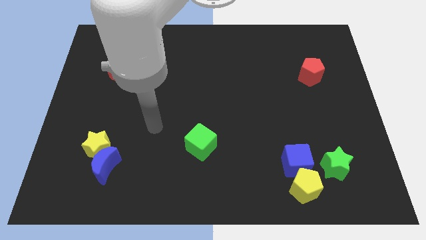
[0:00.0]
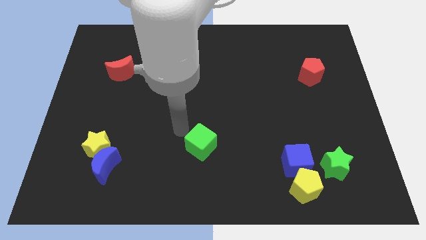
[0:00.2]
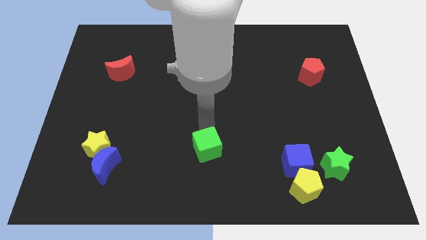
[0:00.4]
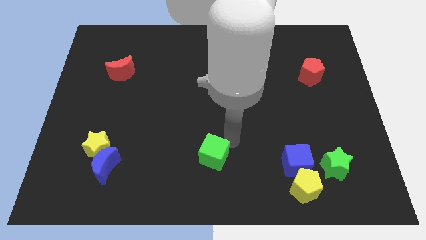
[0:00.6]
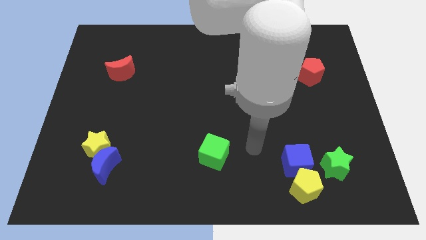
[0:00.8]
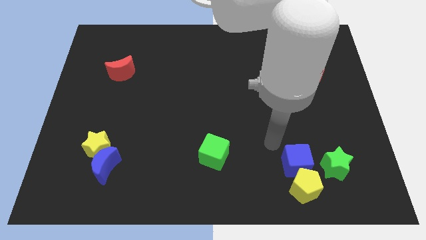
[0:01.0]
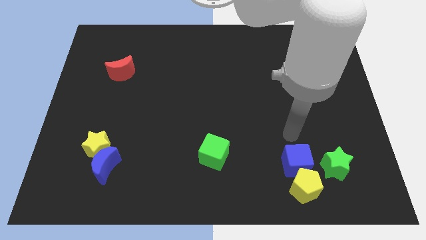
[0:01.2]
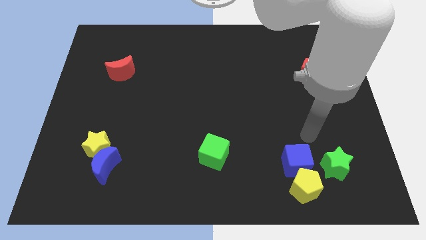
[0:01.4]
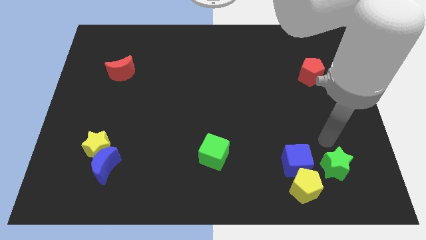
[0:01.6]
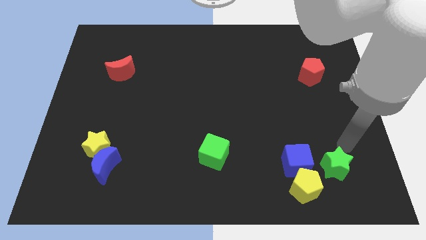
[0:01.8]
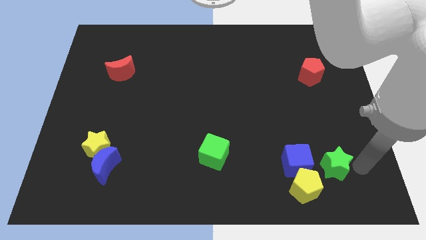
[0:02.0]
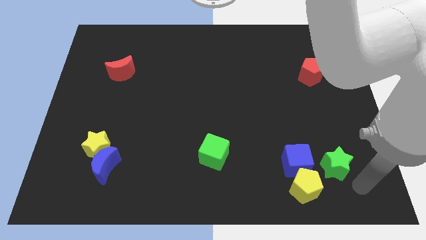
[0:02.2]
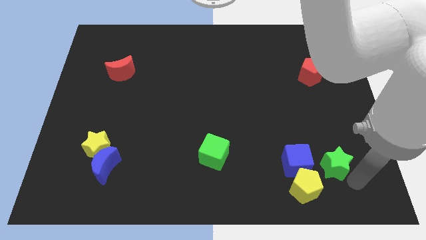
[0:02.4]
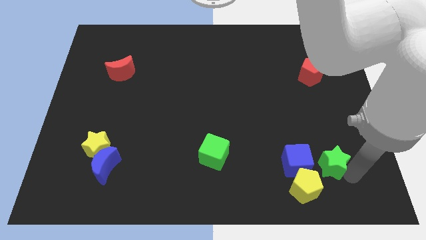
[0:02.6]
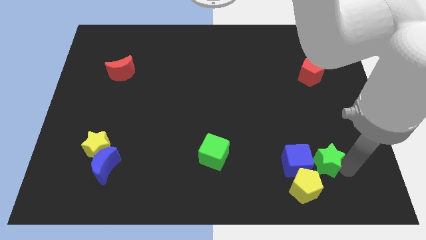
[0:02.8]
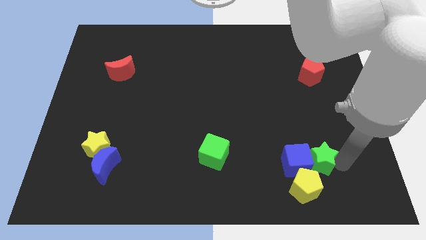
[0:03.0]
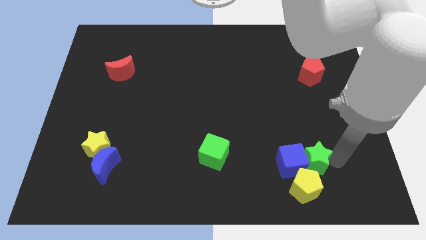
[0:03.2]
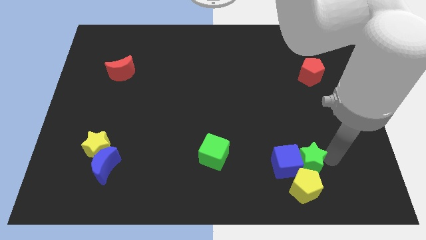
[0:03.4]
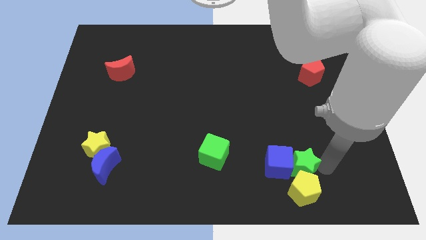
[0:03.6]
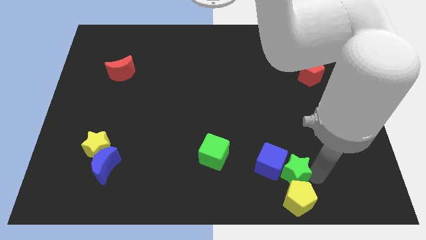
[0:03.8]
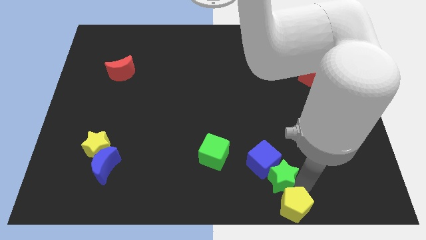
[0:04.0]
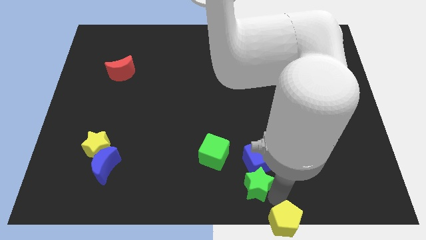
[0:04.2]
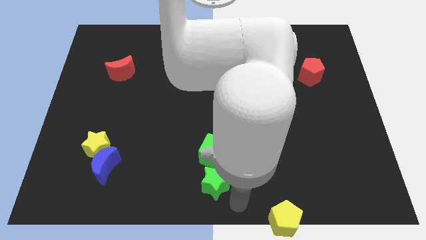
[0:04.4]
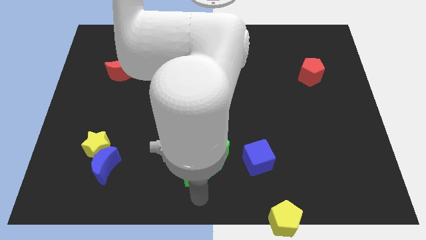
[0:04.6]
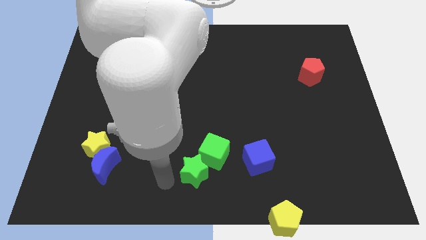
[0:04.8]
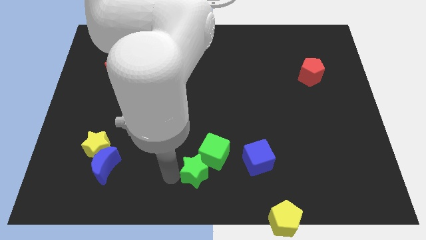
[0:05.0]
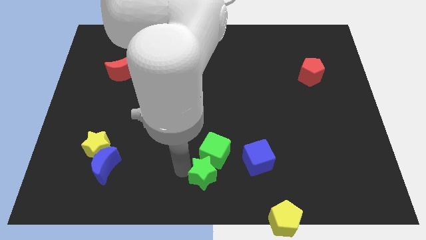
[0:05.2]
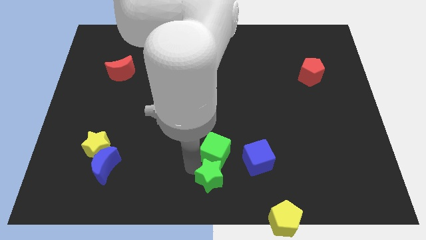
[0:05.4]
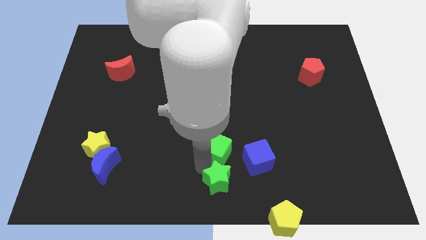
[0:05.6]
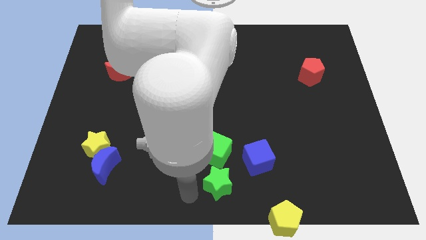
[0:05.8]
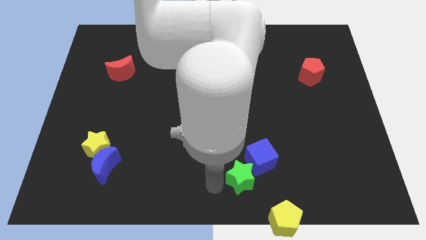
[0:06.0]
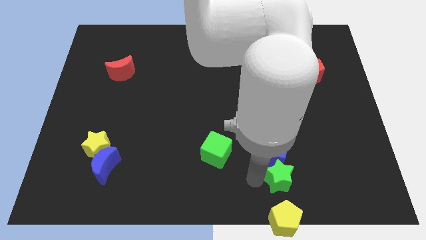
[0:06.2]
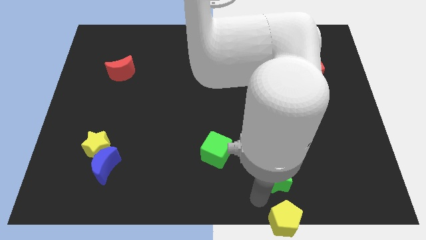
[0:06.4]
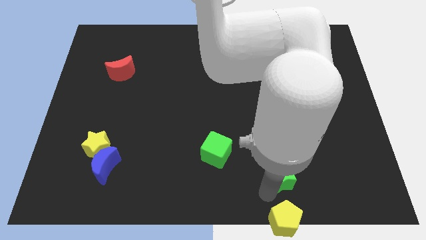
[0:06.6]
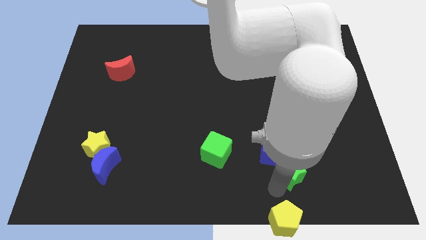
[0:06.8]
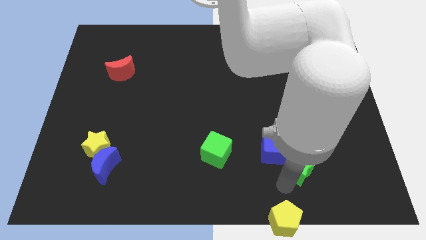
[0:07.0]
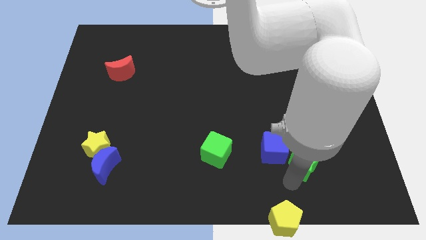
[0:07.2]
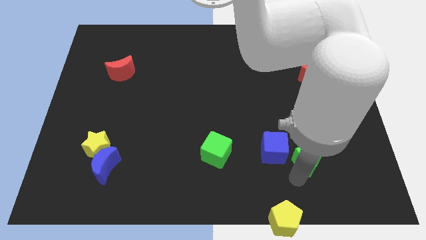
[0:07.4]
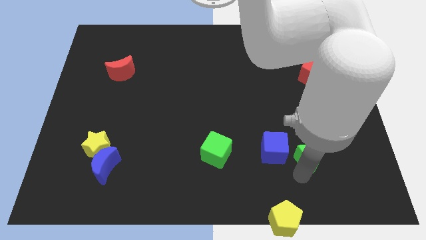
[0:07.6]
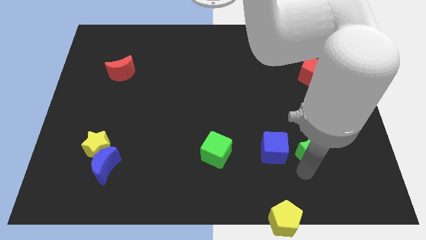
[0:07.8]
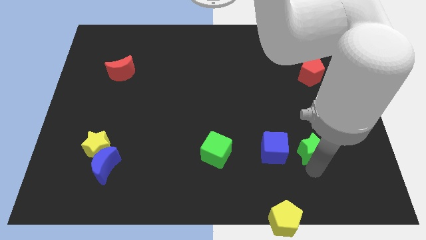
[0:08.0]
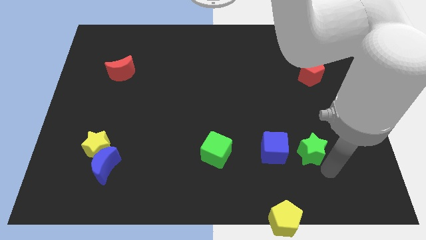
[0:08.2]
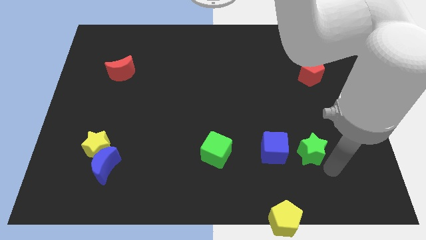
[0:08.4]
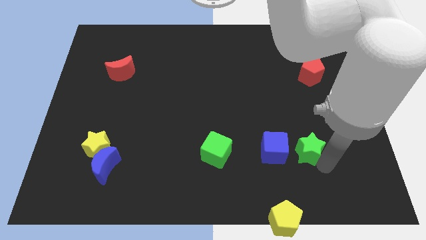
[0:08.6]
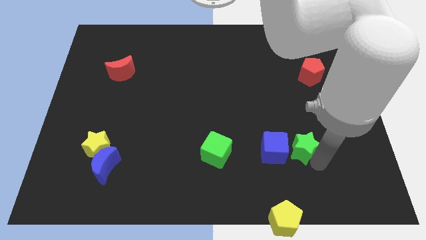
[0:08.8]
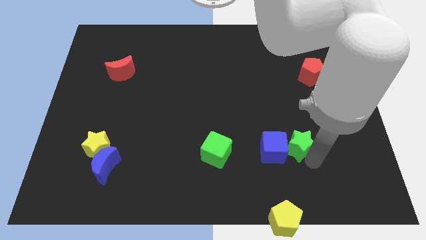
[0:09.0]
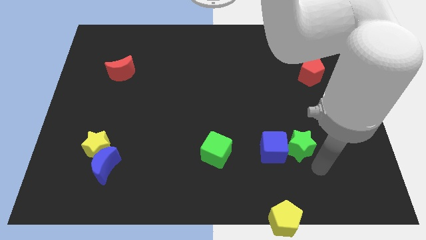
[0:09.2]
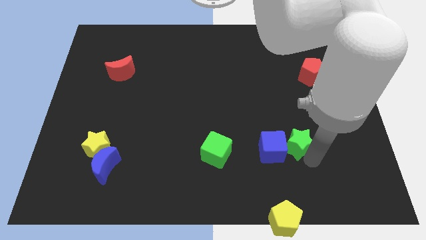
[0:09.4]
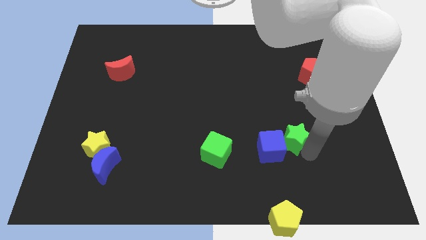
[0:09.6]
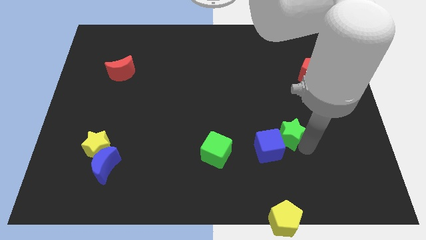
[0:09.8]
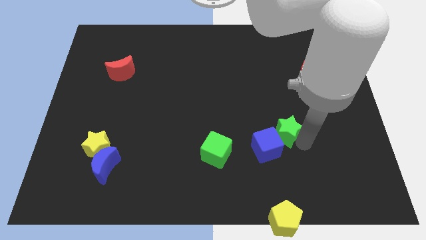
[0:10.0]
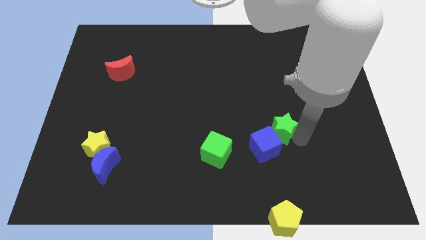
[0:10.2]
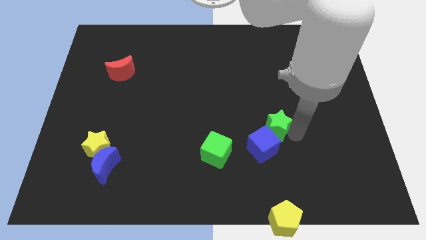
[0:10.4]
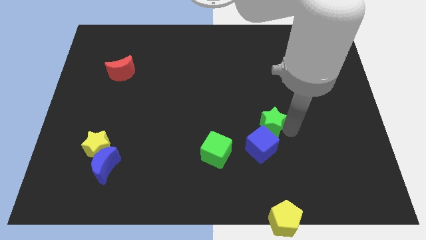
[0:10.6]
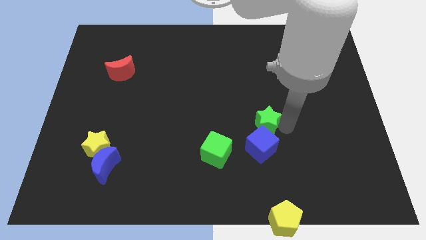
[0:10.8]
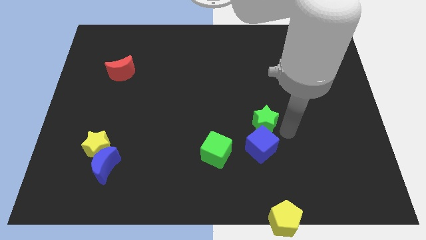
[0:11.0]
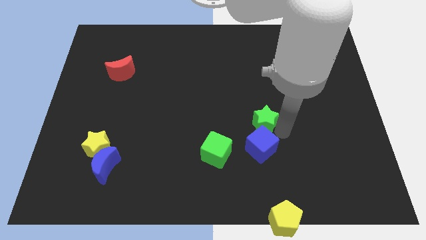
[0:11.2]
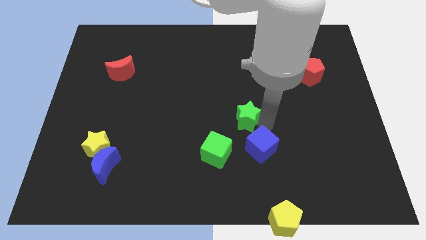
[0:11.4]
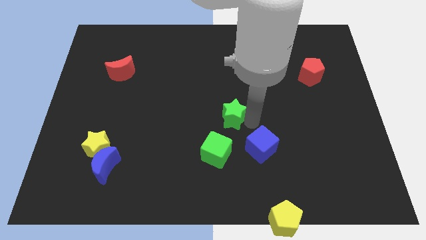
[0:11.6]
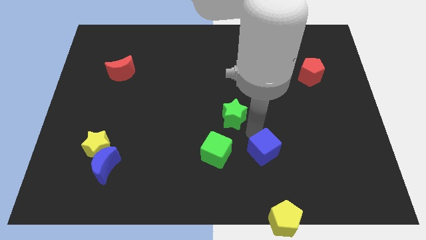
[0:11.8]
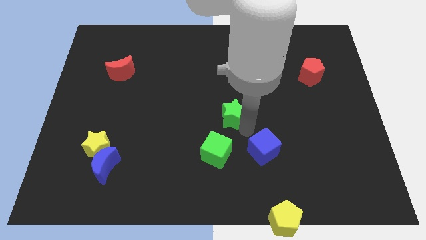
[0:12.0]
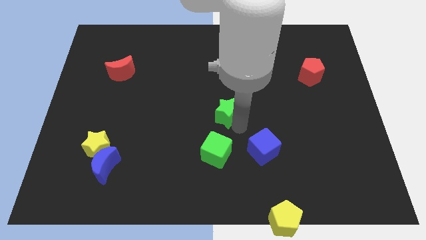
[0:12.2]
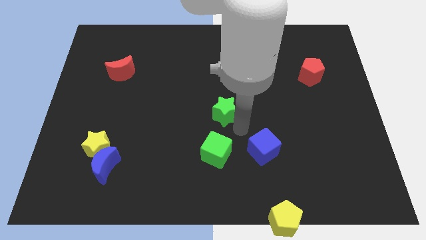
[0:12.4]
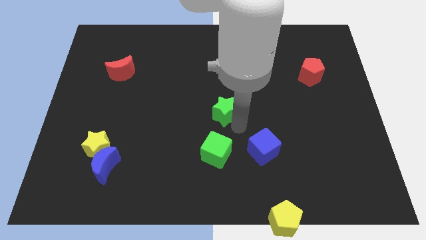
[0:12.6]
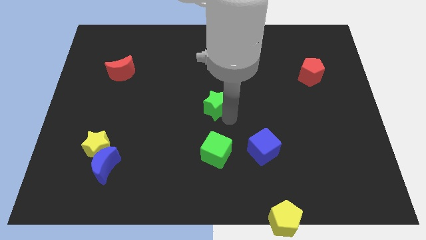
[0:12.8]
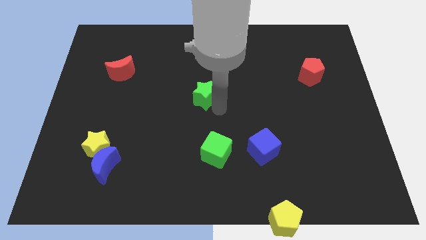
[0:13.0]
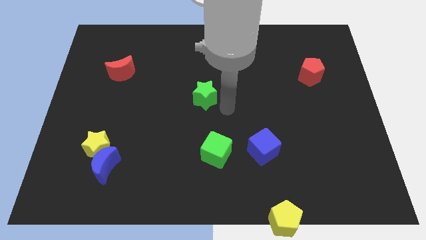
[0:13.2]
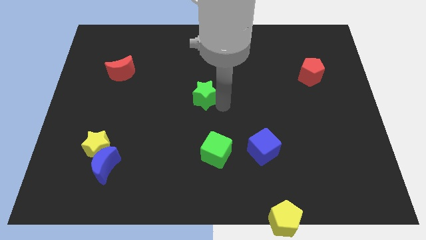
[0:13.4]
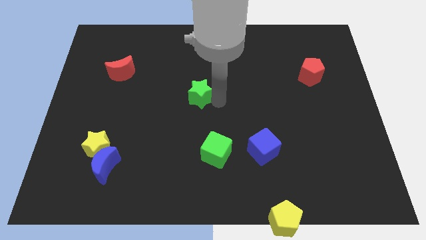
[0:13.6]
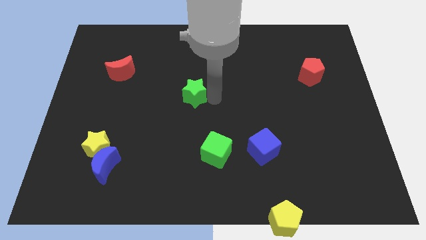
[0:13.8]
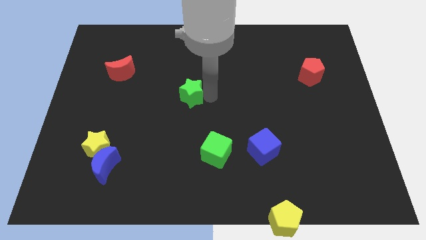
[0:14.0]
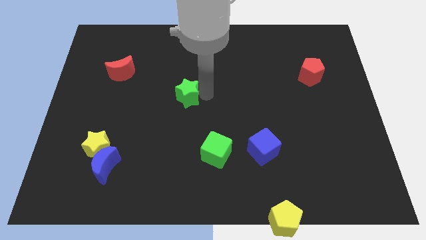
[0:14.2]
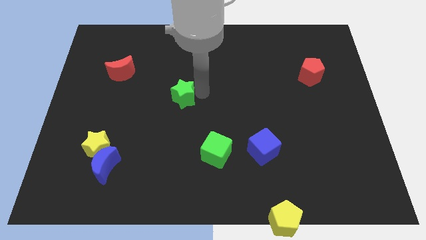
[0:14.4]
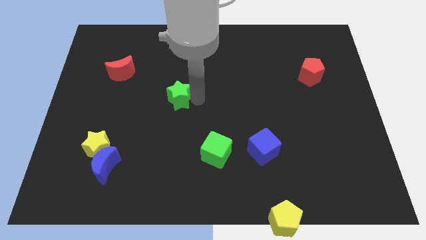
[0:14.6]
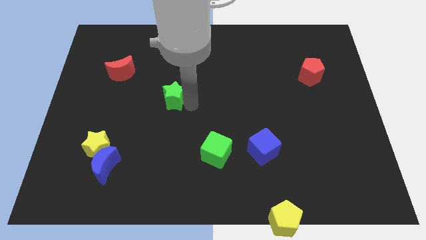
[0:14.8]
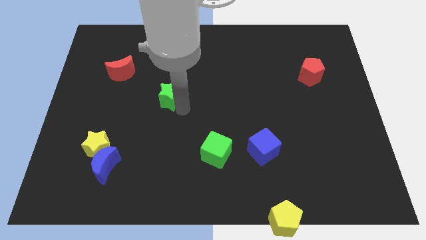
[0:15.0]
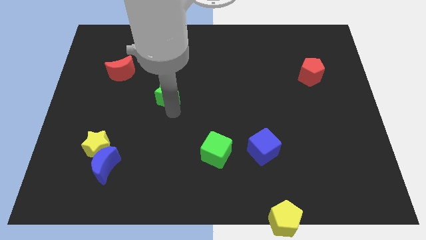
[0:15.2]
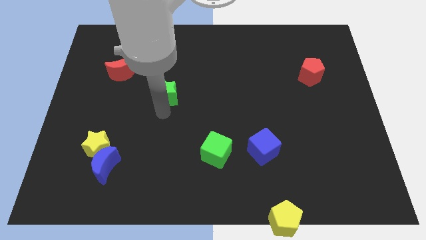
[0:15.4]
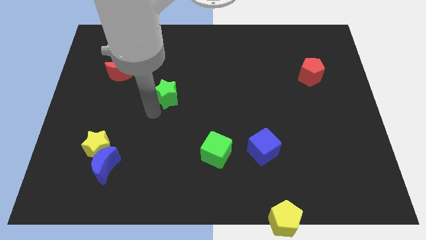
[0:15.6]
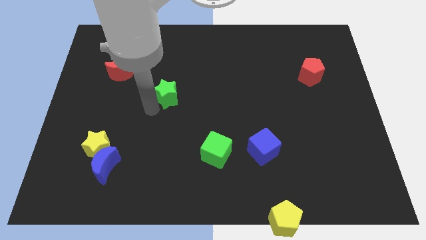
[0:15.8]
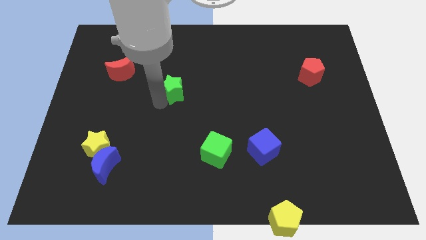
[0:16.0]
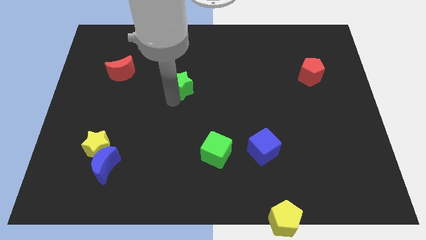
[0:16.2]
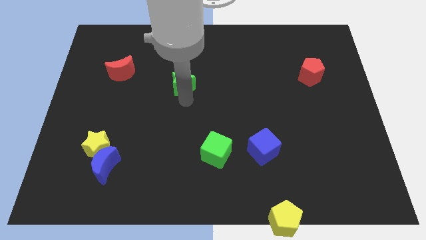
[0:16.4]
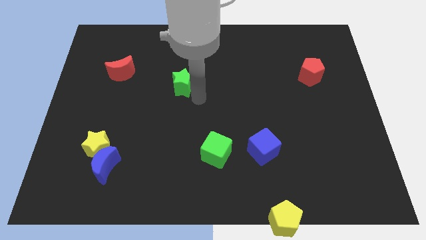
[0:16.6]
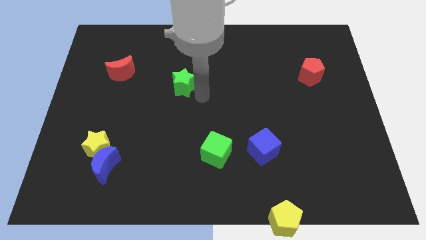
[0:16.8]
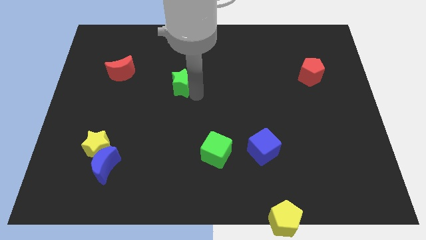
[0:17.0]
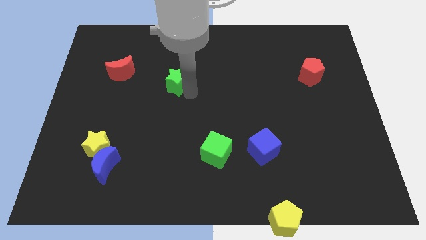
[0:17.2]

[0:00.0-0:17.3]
slide the green star to the right side of the red moon
